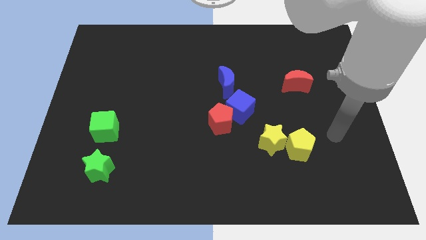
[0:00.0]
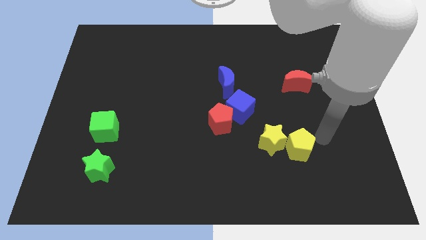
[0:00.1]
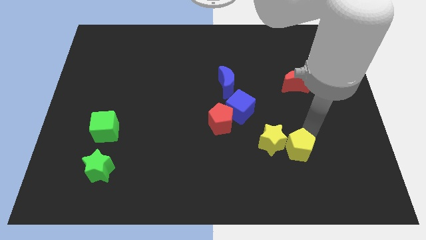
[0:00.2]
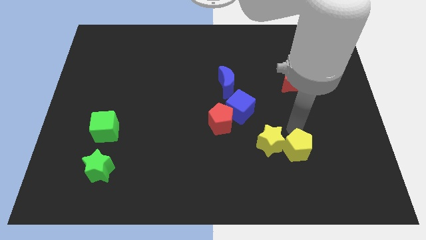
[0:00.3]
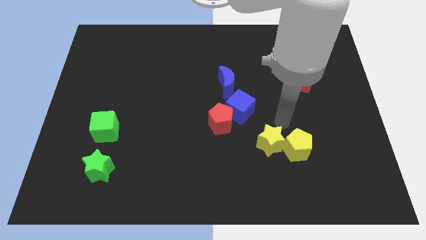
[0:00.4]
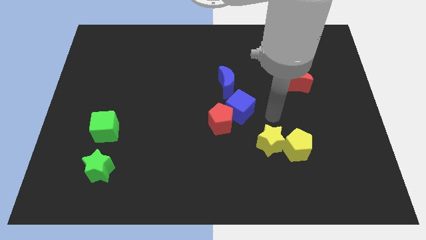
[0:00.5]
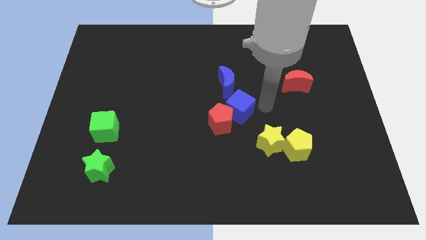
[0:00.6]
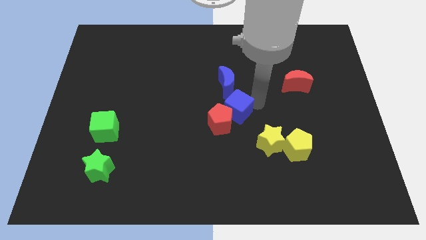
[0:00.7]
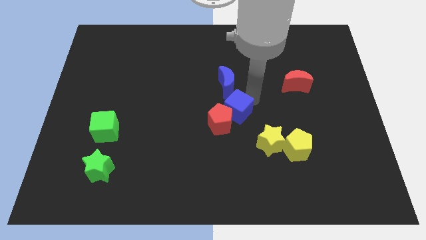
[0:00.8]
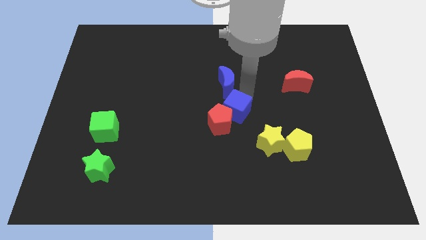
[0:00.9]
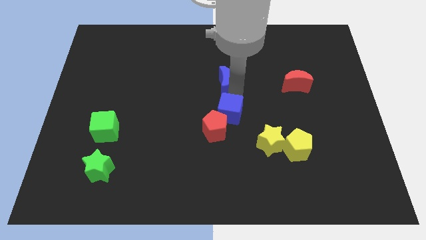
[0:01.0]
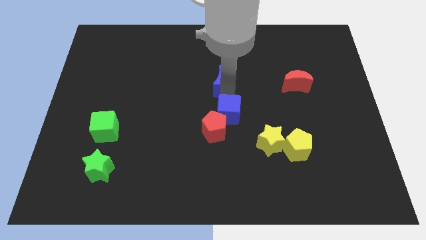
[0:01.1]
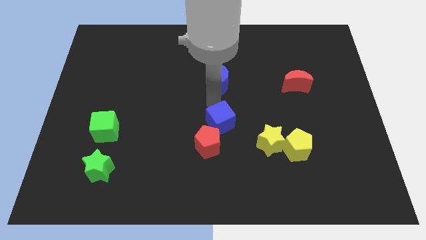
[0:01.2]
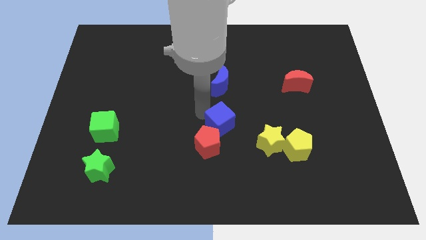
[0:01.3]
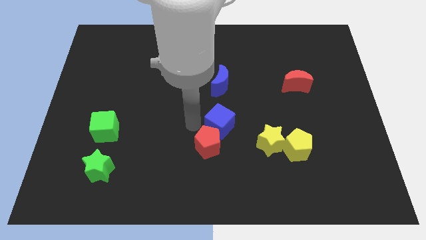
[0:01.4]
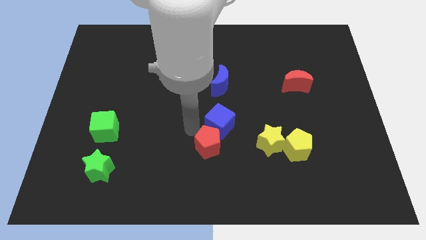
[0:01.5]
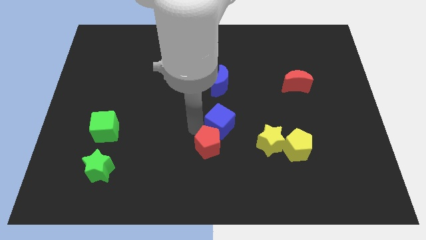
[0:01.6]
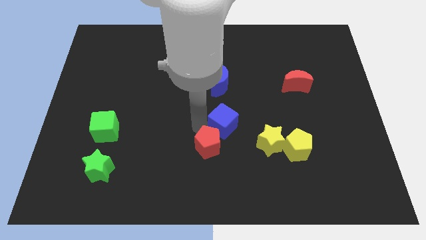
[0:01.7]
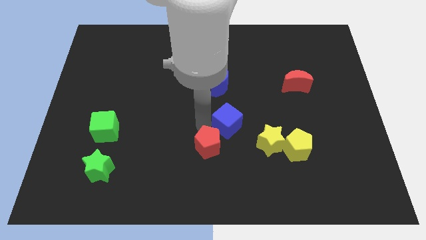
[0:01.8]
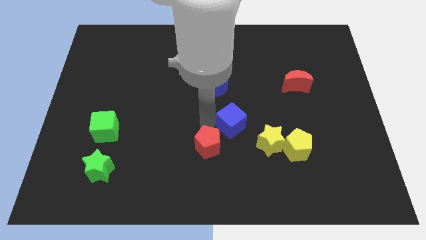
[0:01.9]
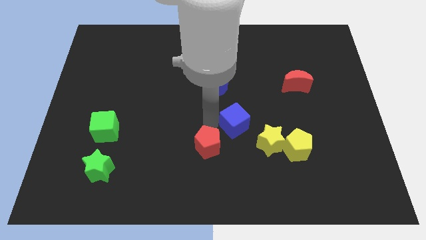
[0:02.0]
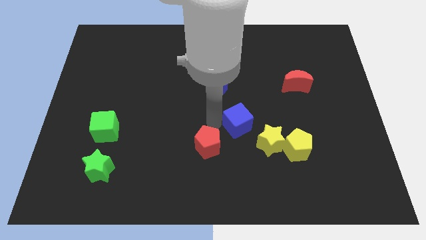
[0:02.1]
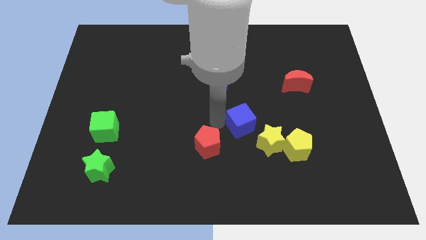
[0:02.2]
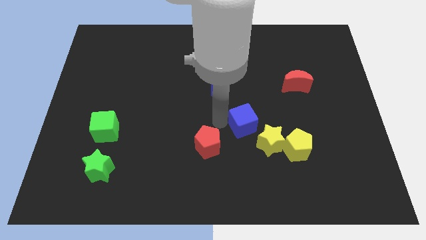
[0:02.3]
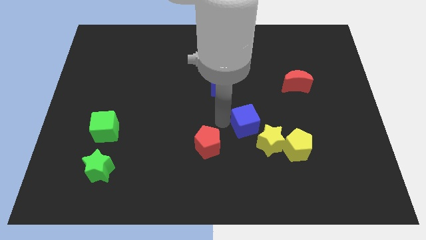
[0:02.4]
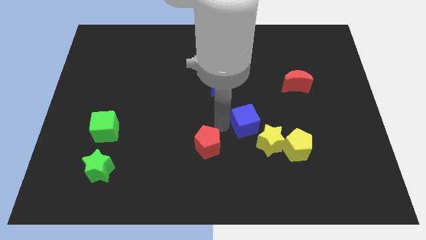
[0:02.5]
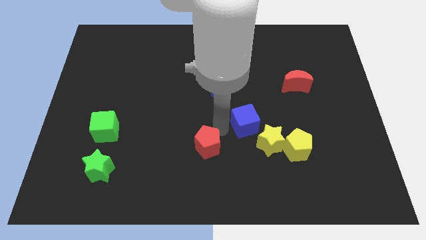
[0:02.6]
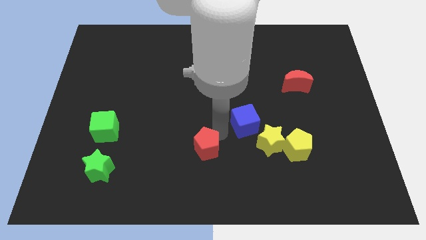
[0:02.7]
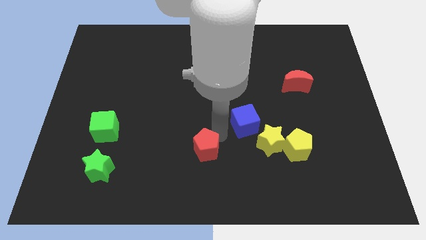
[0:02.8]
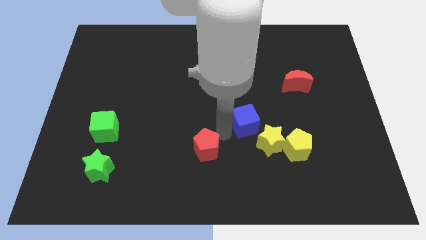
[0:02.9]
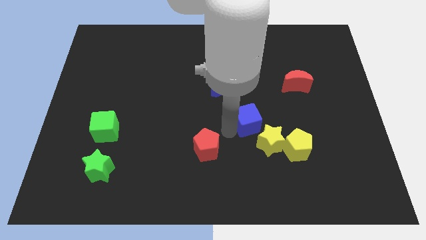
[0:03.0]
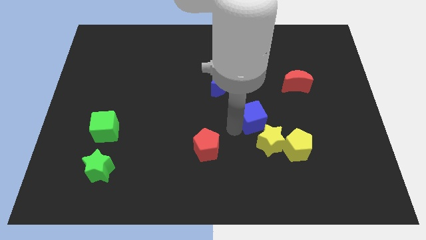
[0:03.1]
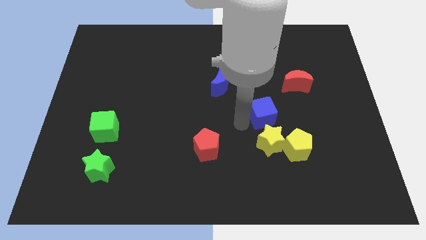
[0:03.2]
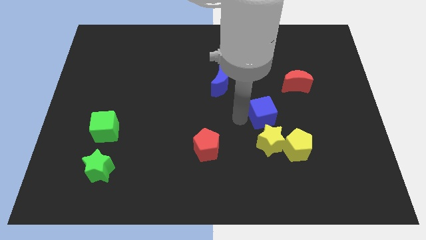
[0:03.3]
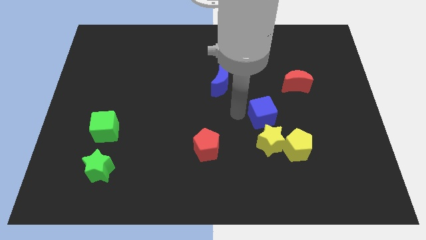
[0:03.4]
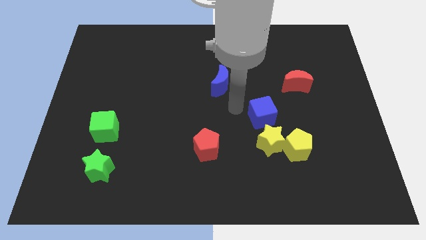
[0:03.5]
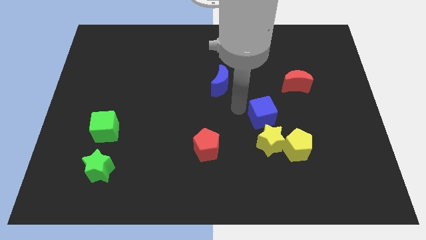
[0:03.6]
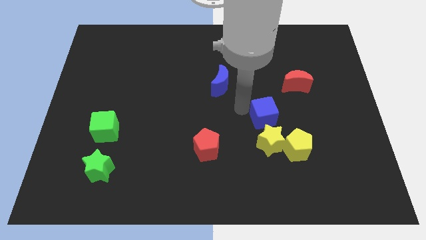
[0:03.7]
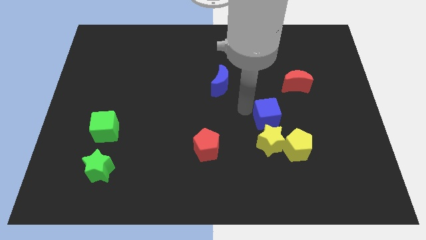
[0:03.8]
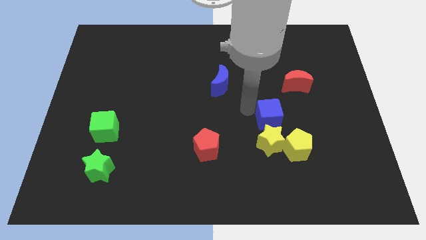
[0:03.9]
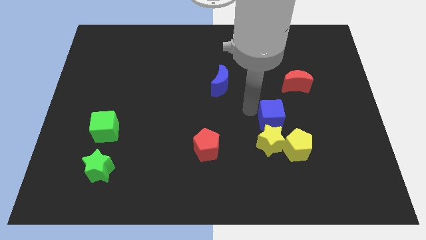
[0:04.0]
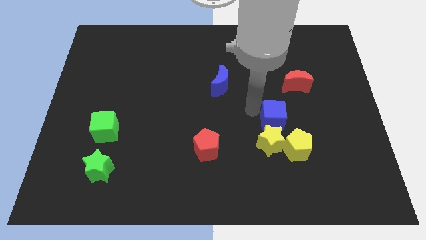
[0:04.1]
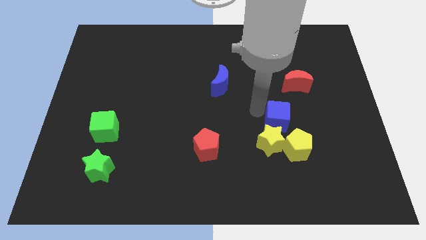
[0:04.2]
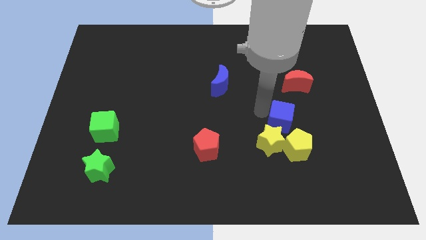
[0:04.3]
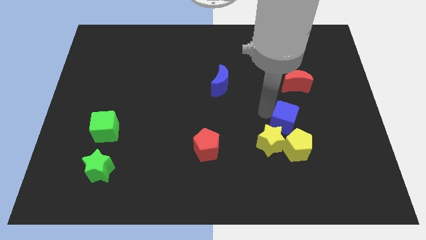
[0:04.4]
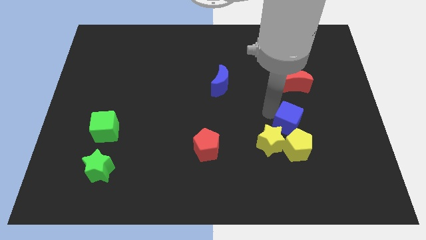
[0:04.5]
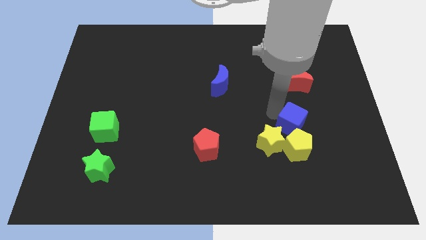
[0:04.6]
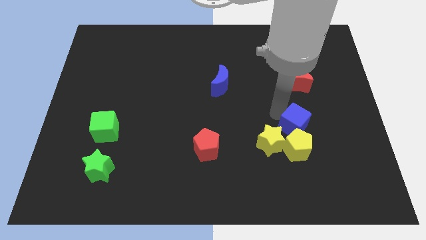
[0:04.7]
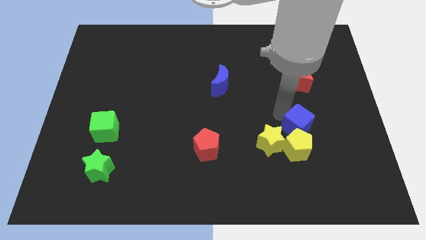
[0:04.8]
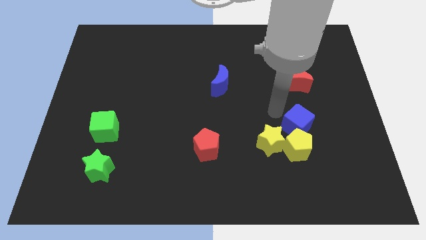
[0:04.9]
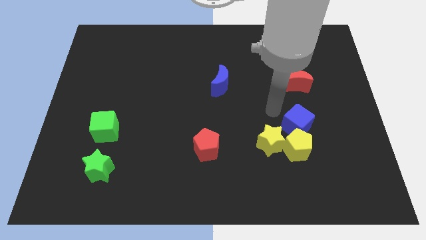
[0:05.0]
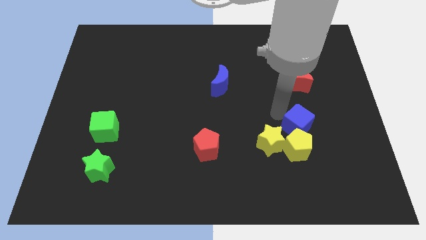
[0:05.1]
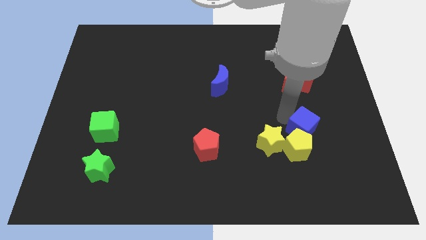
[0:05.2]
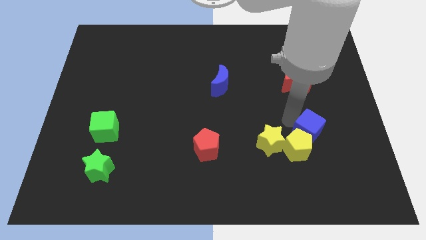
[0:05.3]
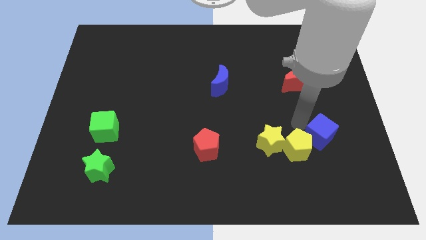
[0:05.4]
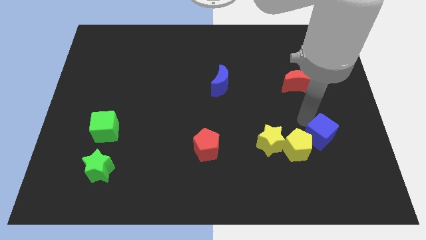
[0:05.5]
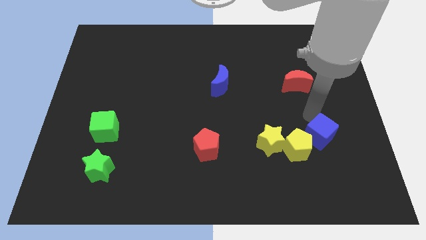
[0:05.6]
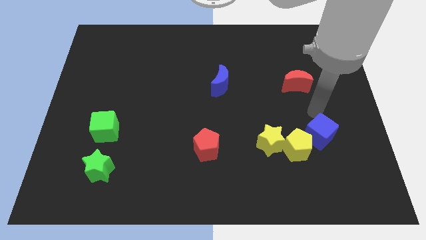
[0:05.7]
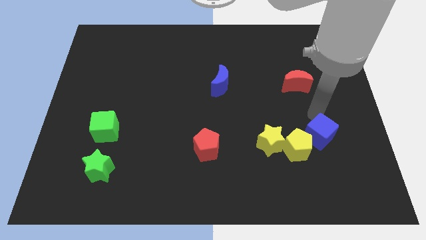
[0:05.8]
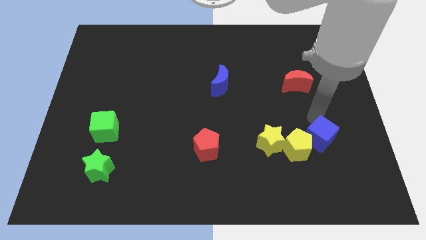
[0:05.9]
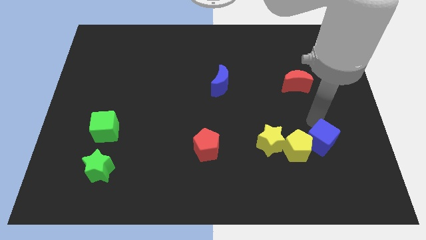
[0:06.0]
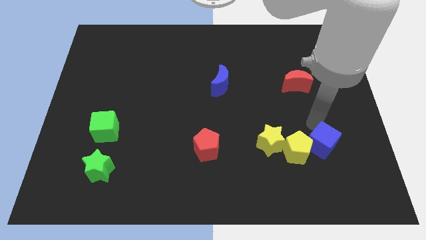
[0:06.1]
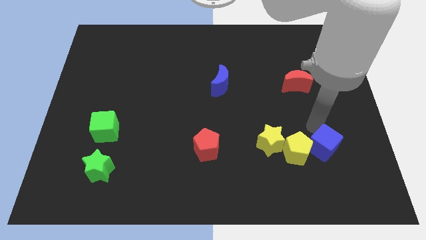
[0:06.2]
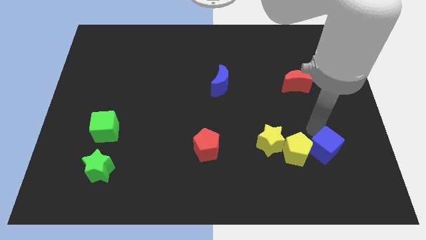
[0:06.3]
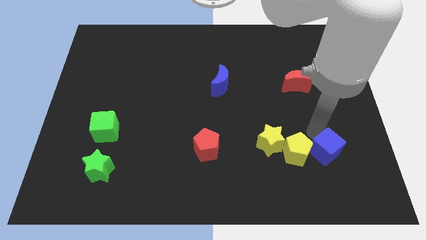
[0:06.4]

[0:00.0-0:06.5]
push the blue cube to the bottom right side of the yellow pentagon

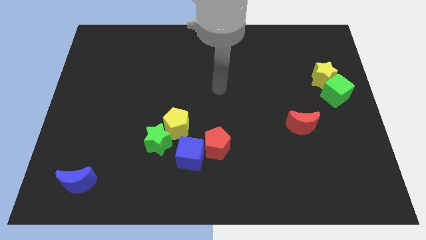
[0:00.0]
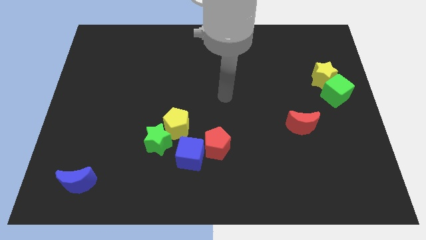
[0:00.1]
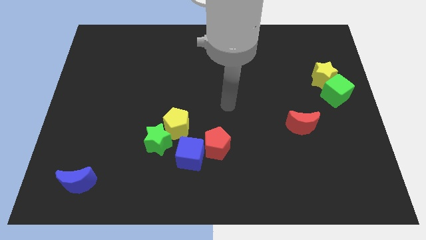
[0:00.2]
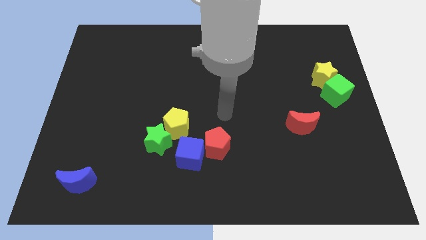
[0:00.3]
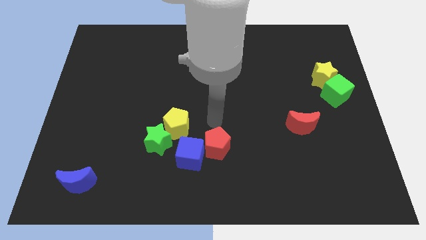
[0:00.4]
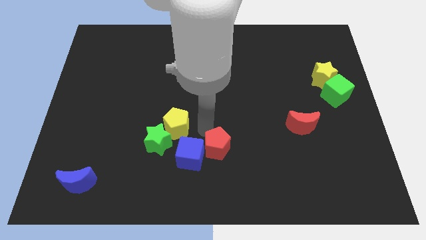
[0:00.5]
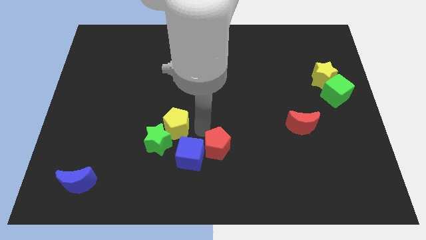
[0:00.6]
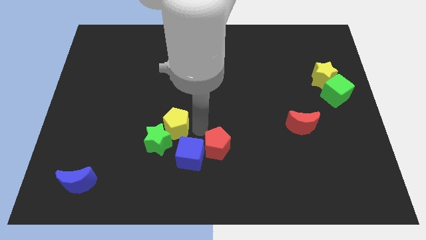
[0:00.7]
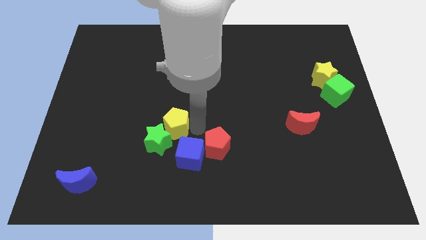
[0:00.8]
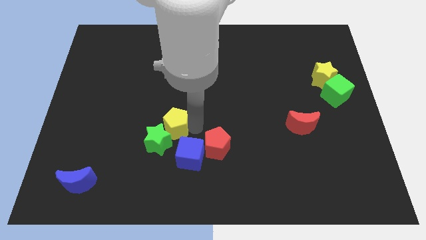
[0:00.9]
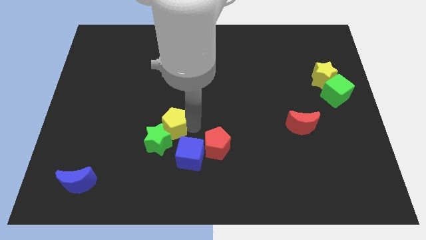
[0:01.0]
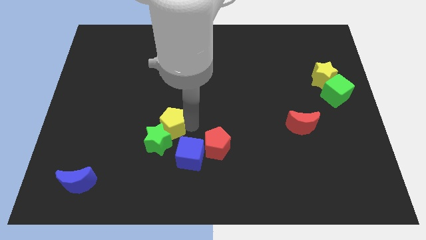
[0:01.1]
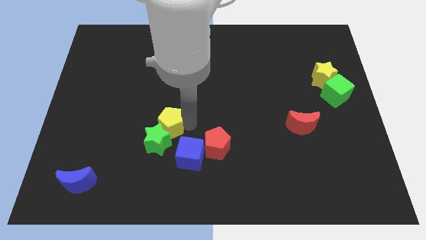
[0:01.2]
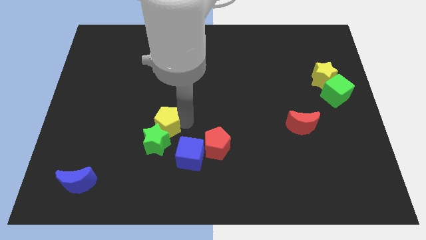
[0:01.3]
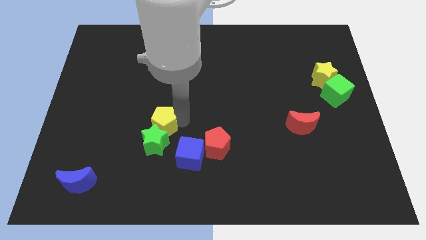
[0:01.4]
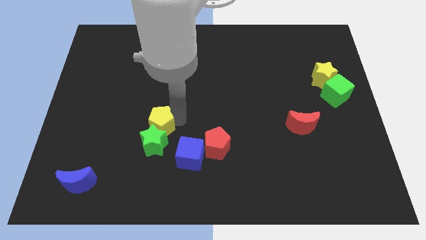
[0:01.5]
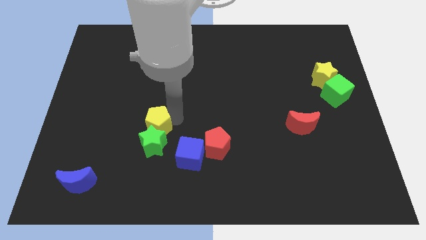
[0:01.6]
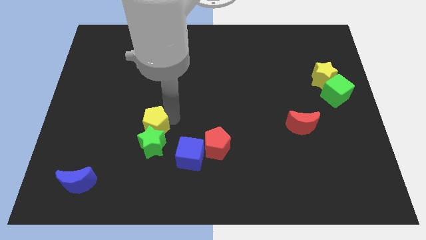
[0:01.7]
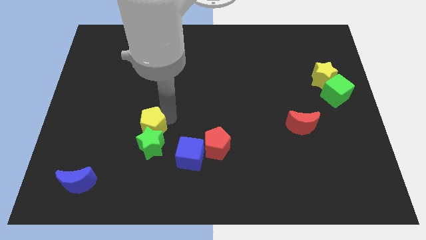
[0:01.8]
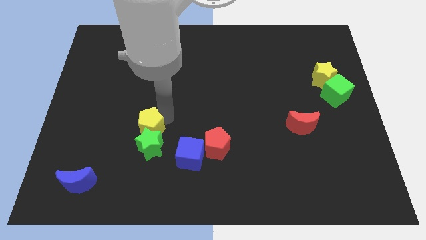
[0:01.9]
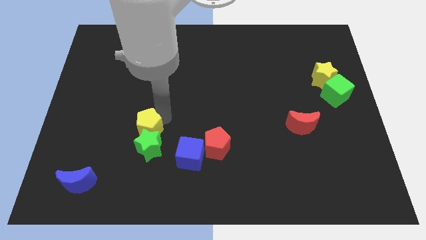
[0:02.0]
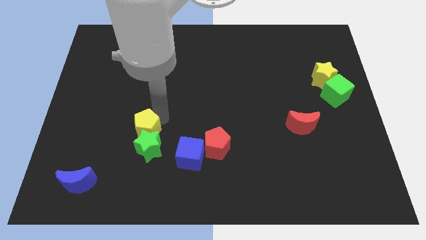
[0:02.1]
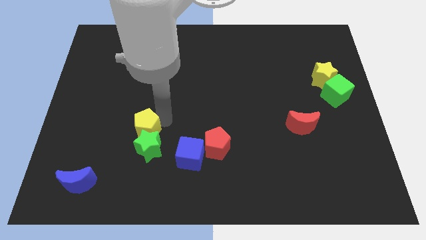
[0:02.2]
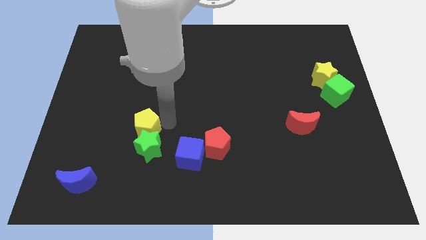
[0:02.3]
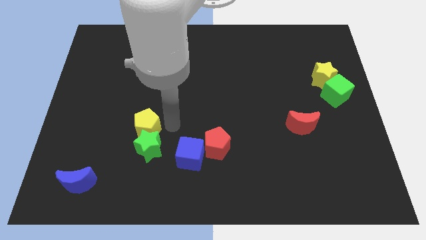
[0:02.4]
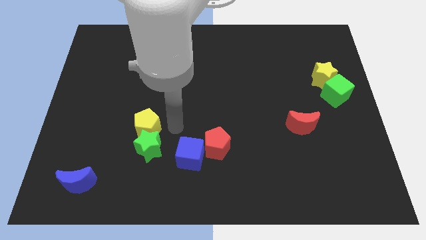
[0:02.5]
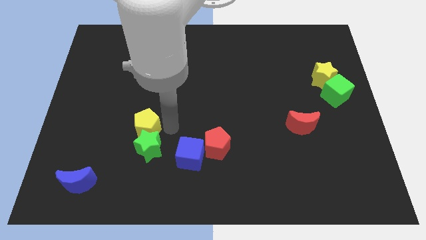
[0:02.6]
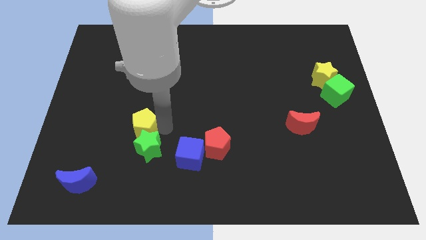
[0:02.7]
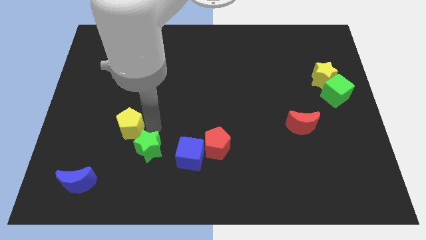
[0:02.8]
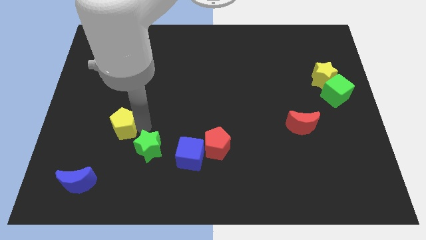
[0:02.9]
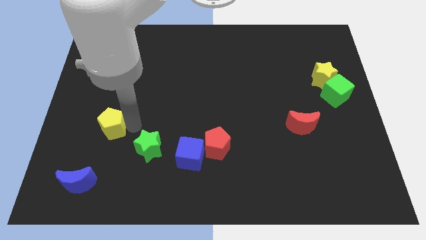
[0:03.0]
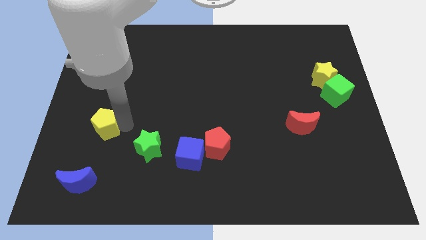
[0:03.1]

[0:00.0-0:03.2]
move the yellow pentagon to the top side of the blue moon
